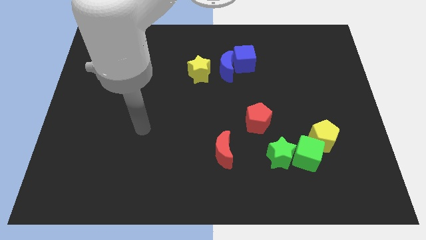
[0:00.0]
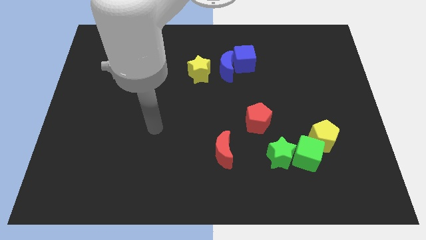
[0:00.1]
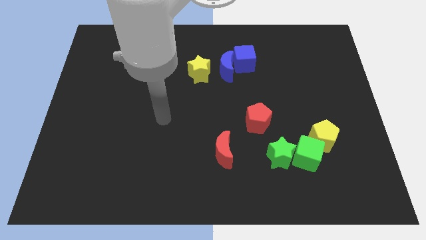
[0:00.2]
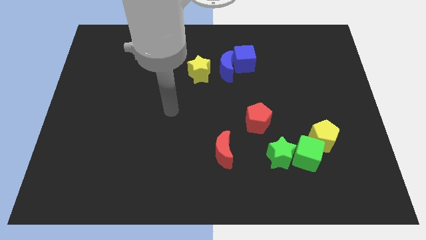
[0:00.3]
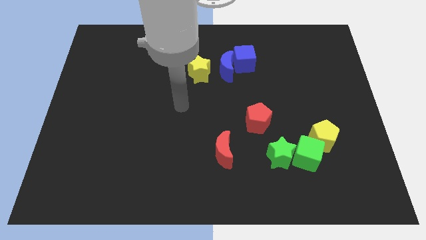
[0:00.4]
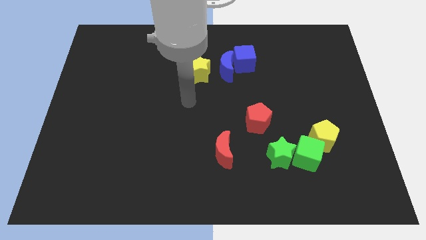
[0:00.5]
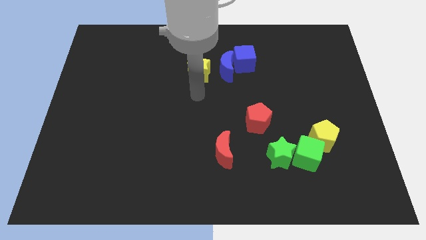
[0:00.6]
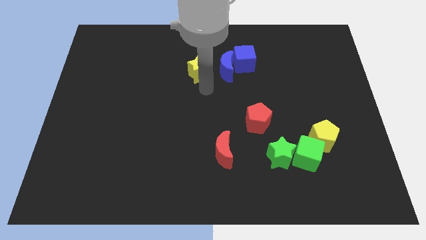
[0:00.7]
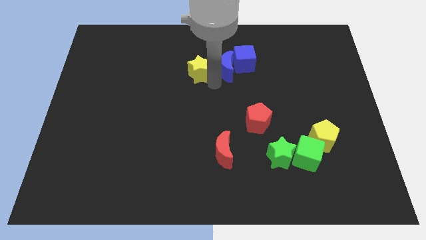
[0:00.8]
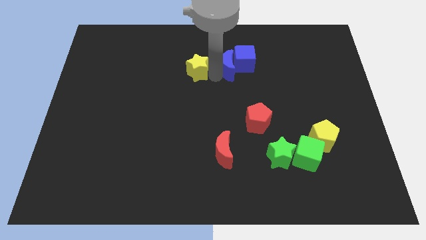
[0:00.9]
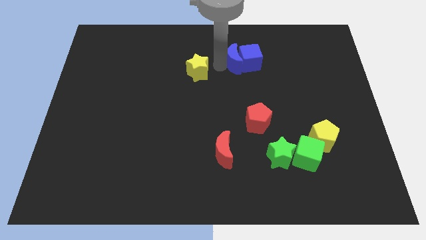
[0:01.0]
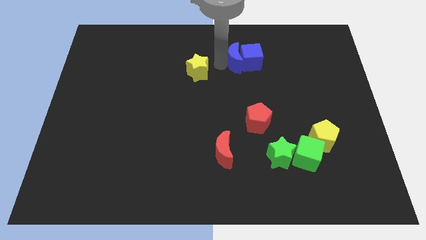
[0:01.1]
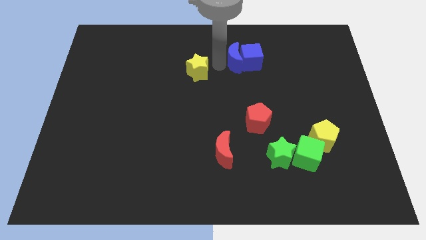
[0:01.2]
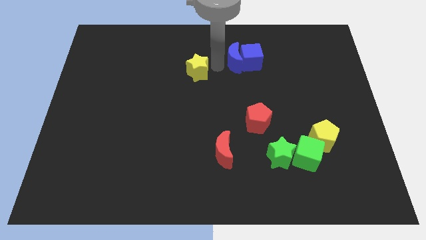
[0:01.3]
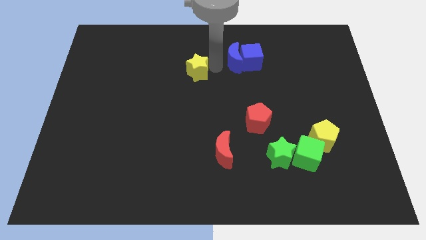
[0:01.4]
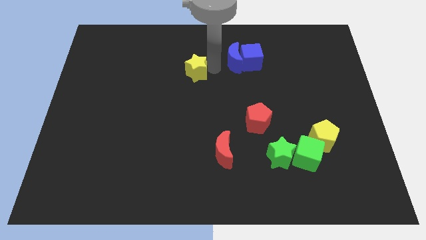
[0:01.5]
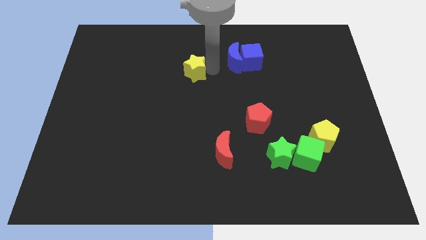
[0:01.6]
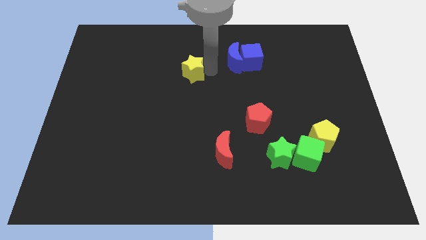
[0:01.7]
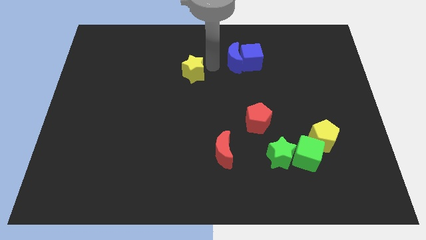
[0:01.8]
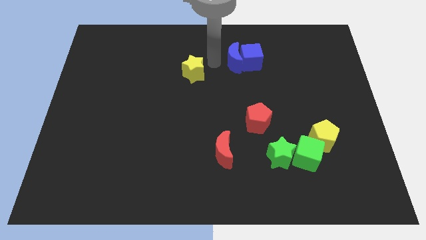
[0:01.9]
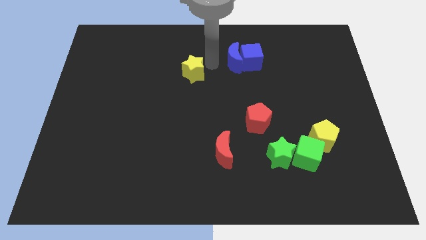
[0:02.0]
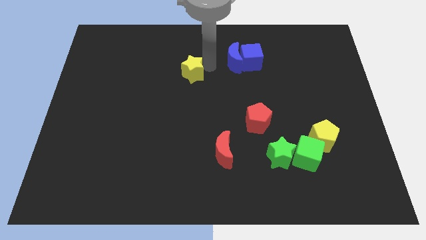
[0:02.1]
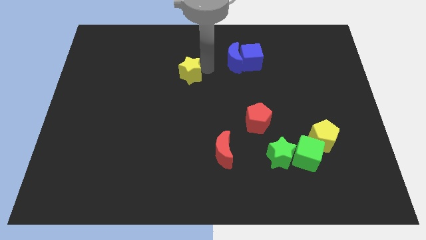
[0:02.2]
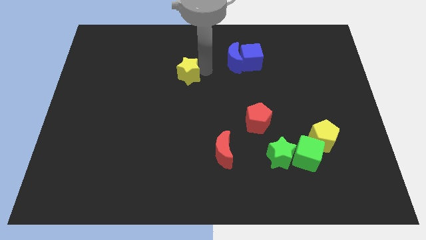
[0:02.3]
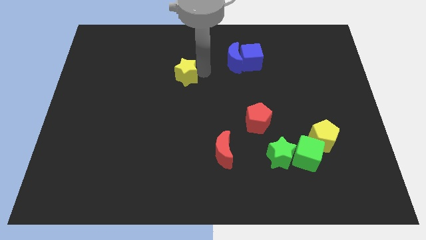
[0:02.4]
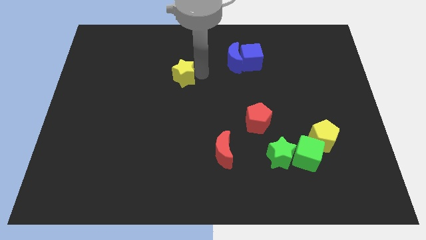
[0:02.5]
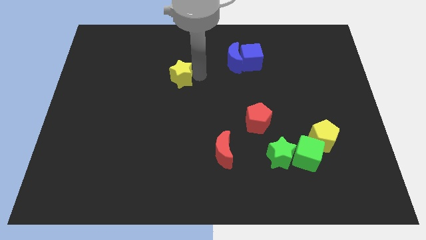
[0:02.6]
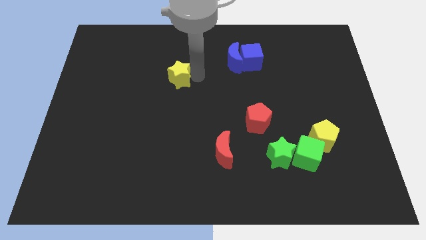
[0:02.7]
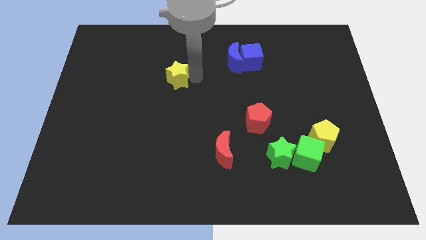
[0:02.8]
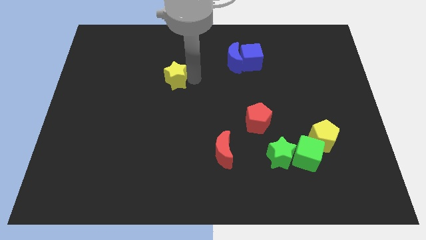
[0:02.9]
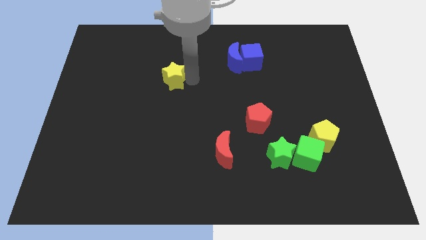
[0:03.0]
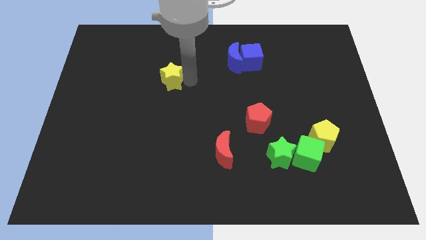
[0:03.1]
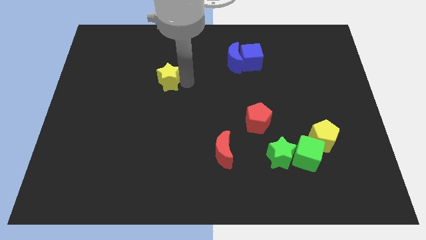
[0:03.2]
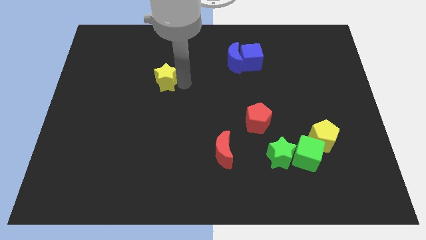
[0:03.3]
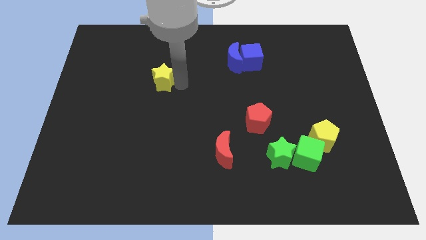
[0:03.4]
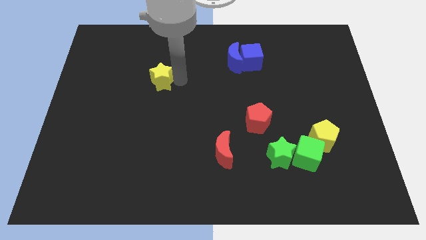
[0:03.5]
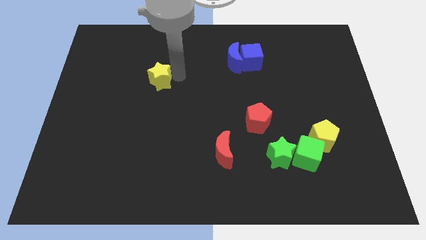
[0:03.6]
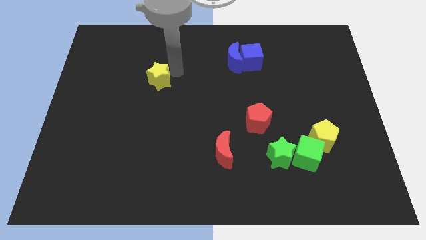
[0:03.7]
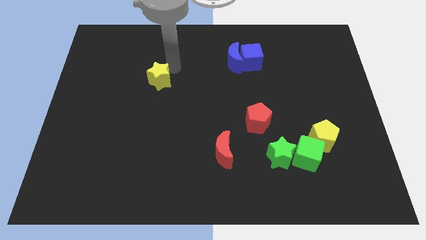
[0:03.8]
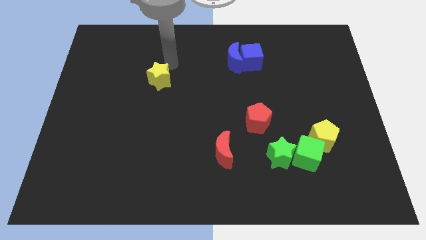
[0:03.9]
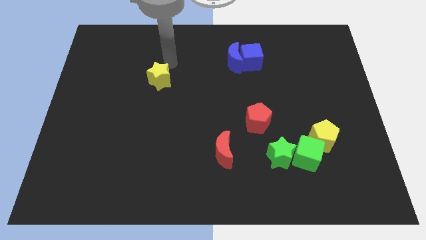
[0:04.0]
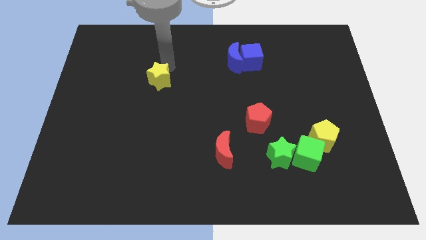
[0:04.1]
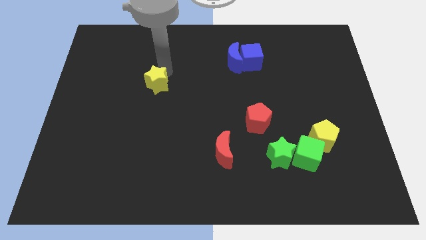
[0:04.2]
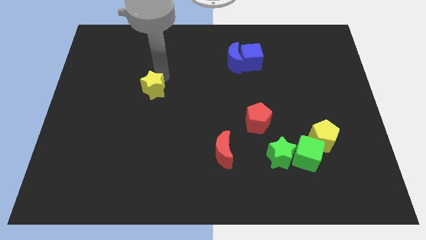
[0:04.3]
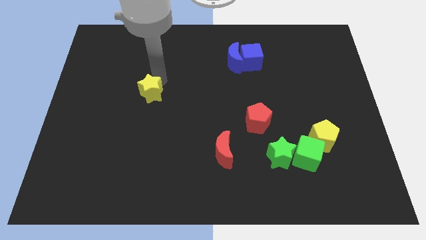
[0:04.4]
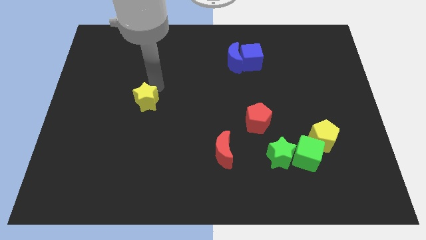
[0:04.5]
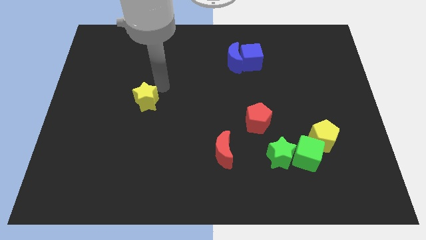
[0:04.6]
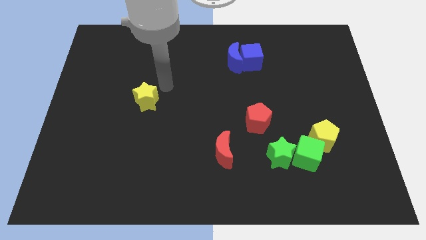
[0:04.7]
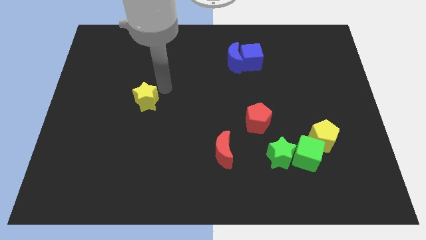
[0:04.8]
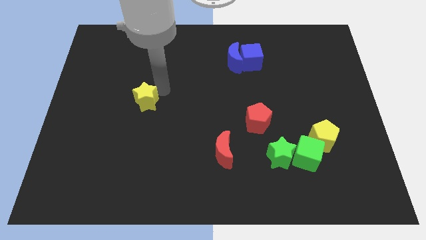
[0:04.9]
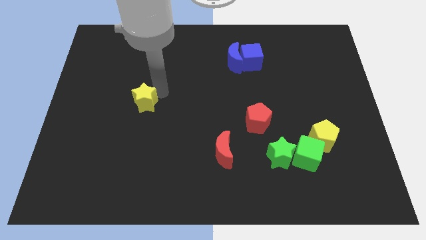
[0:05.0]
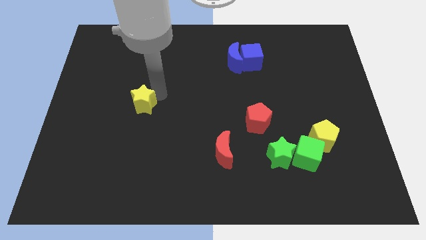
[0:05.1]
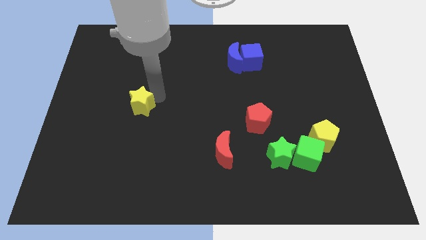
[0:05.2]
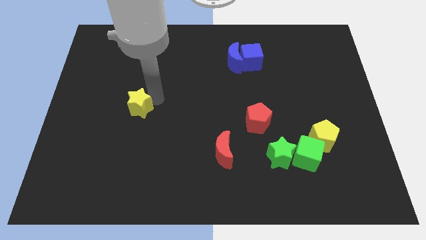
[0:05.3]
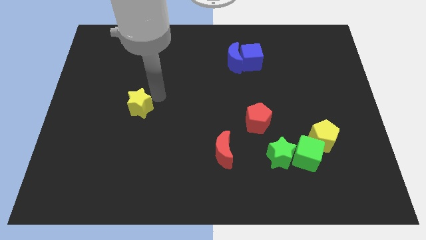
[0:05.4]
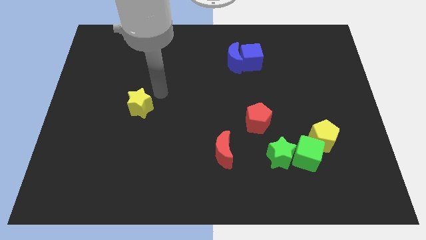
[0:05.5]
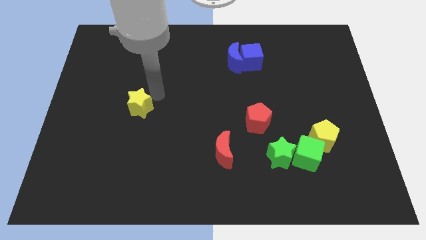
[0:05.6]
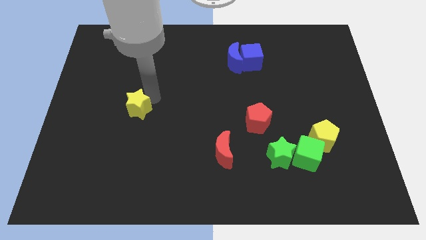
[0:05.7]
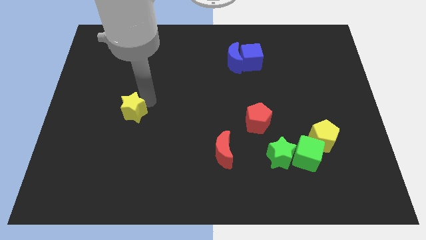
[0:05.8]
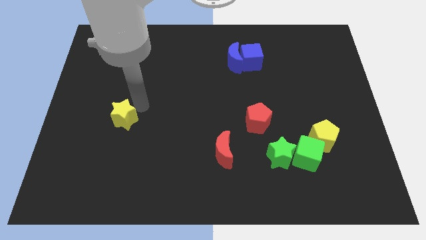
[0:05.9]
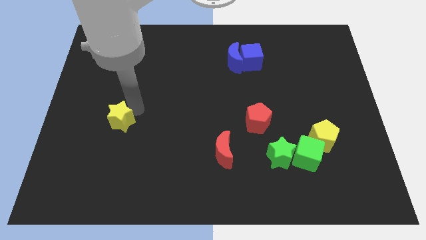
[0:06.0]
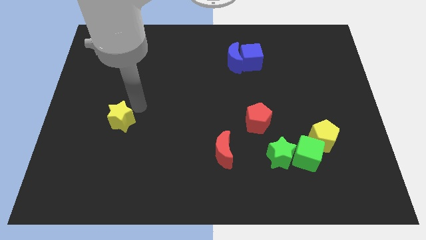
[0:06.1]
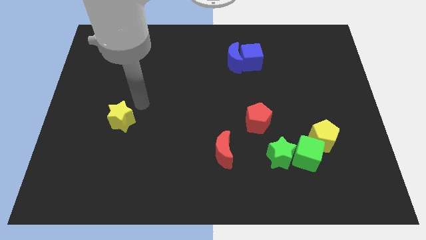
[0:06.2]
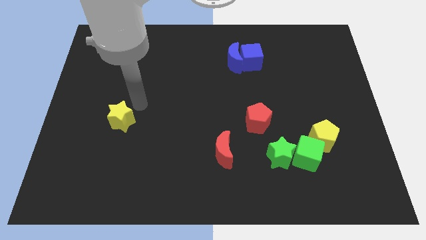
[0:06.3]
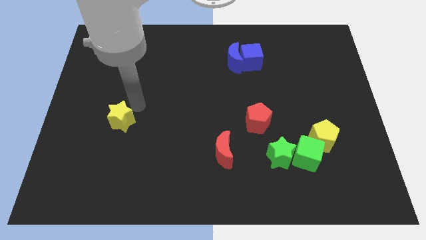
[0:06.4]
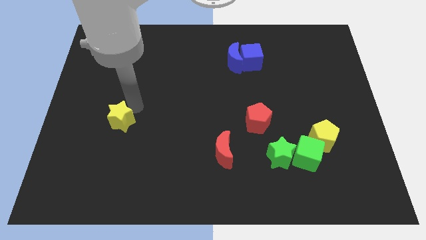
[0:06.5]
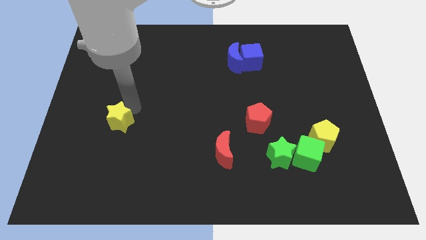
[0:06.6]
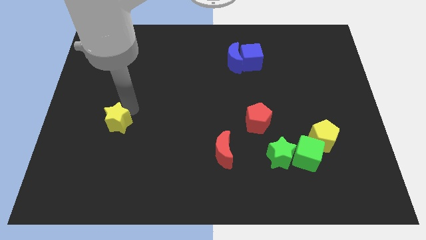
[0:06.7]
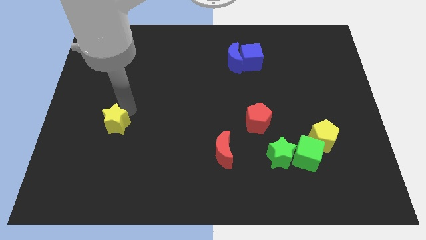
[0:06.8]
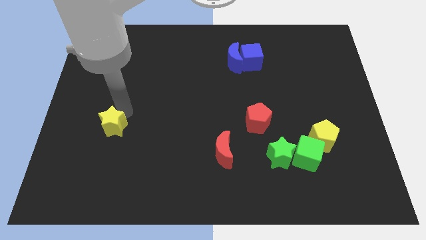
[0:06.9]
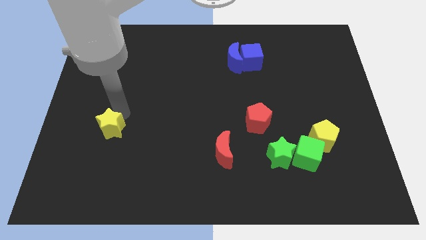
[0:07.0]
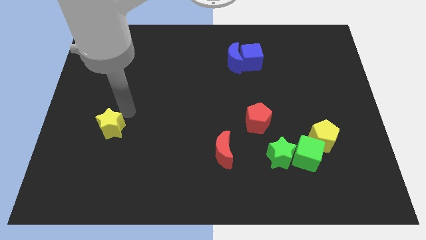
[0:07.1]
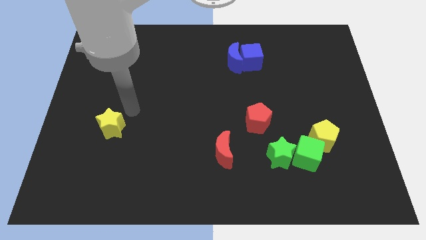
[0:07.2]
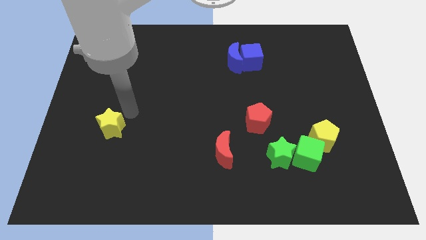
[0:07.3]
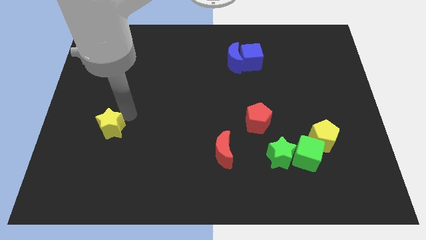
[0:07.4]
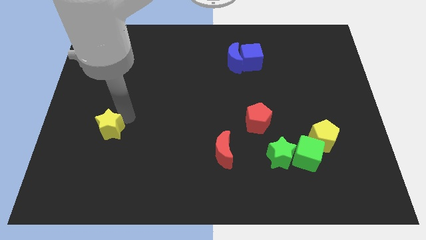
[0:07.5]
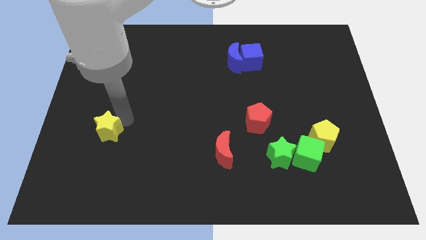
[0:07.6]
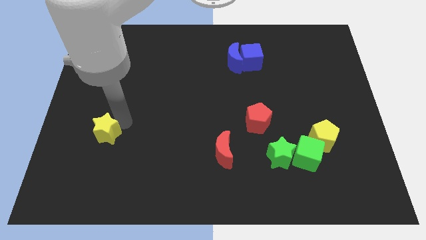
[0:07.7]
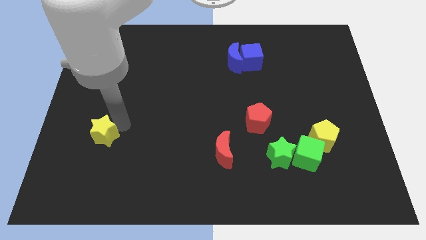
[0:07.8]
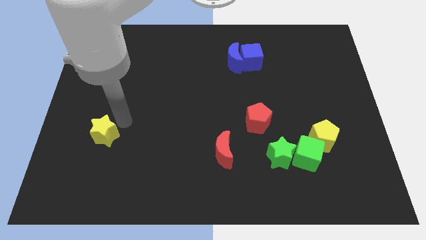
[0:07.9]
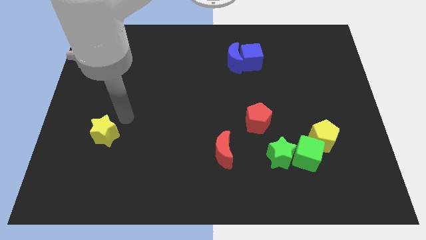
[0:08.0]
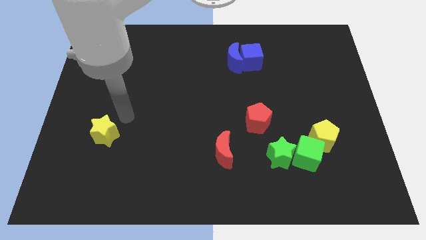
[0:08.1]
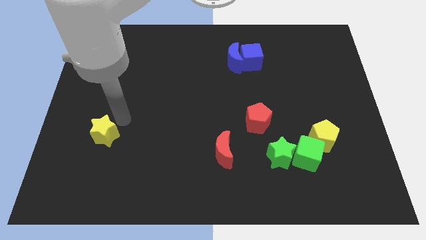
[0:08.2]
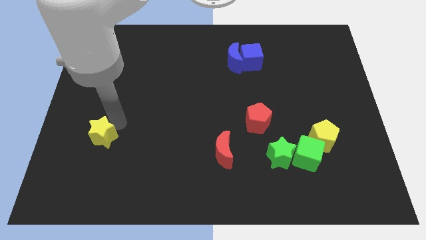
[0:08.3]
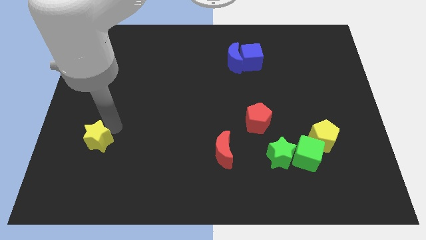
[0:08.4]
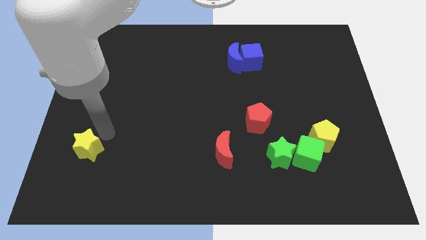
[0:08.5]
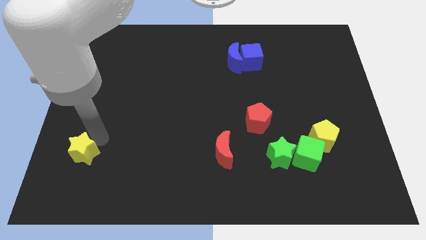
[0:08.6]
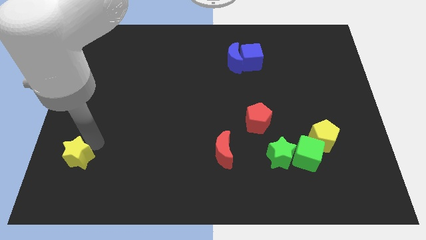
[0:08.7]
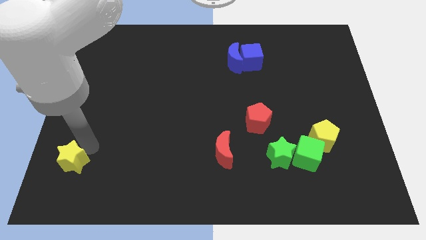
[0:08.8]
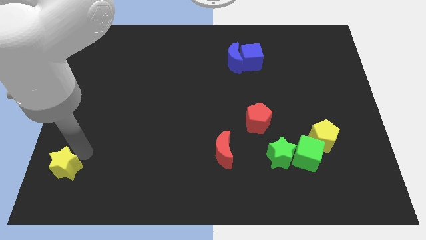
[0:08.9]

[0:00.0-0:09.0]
slide the yellow star to the bottom left of the board
